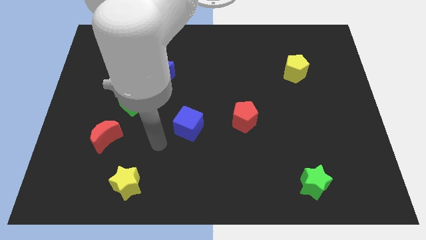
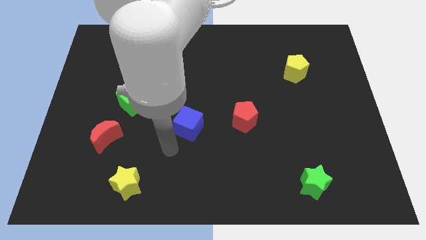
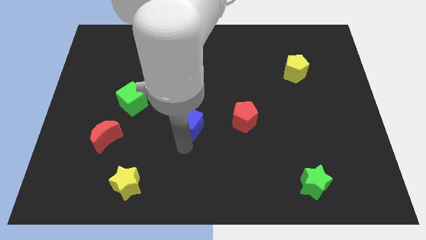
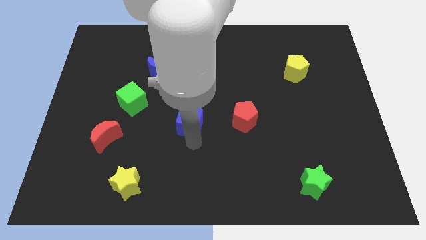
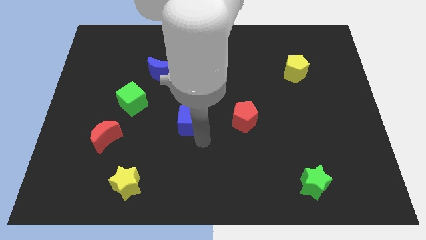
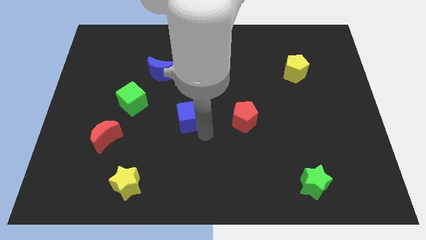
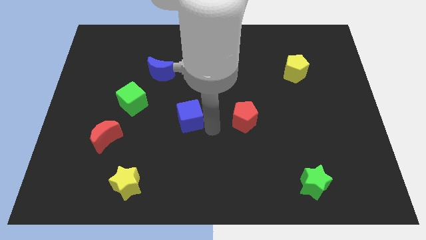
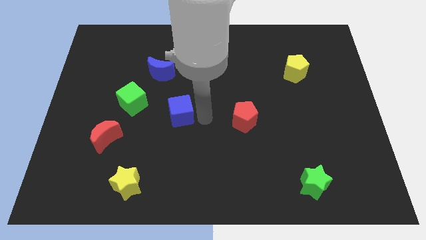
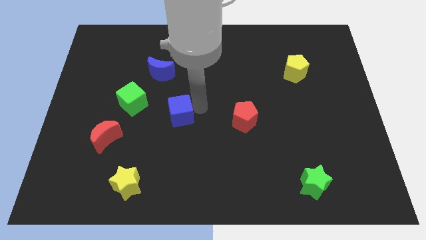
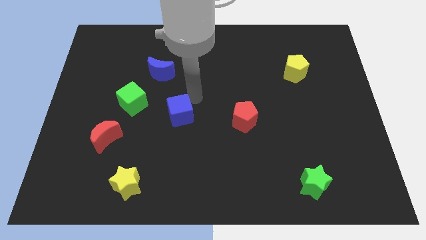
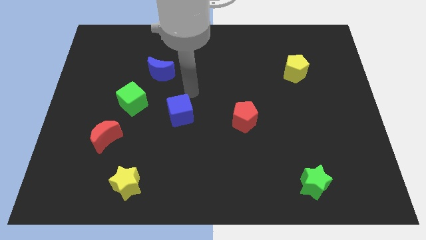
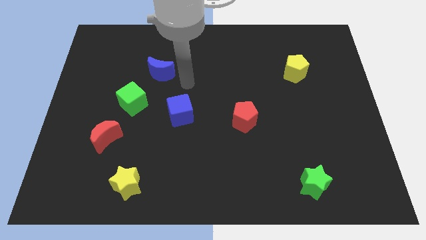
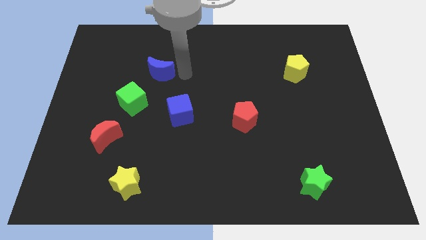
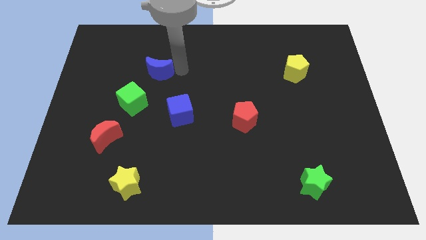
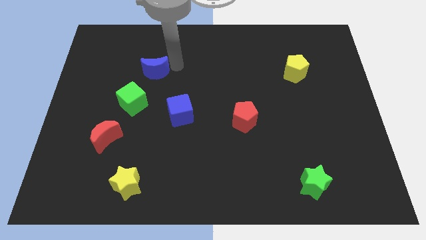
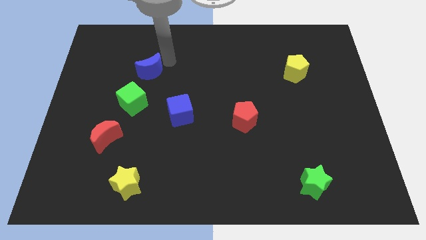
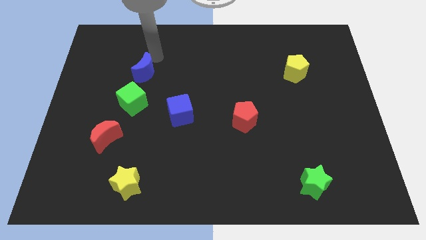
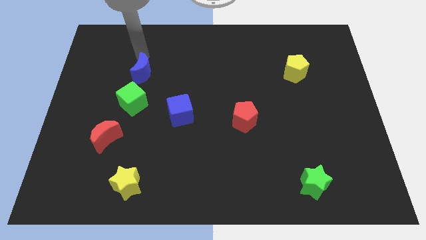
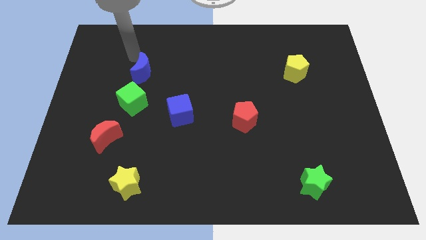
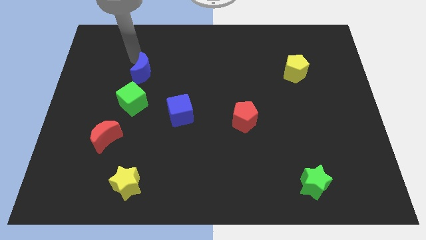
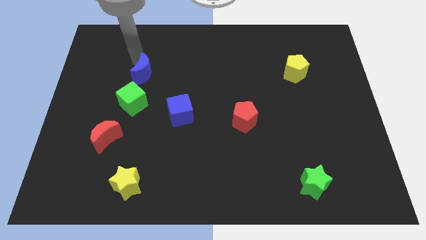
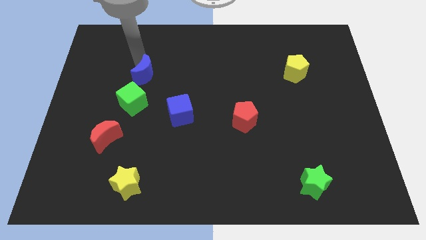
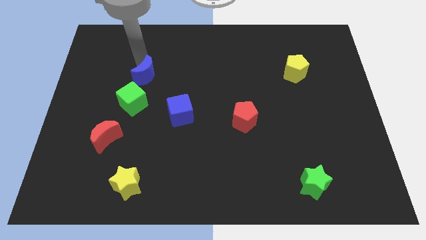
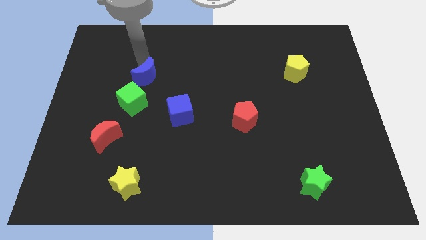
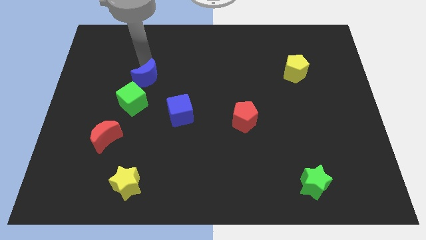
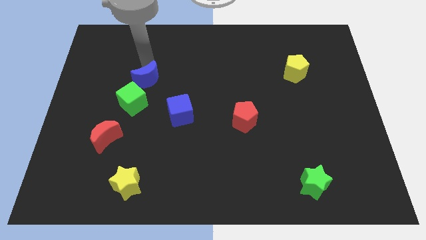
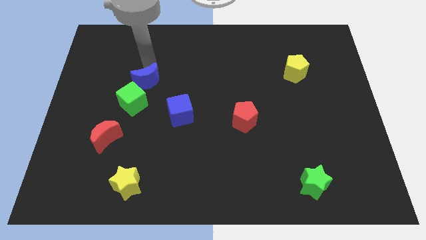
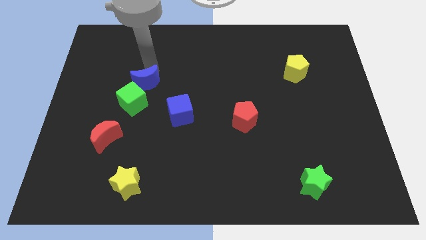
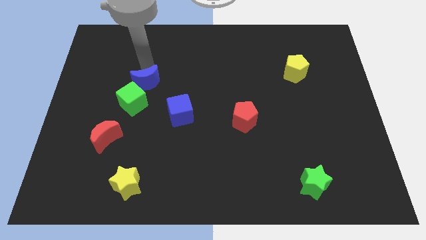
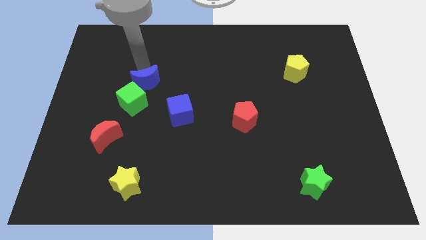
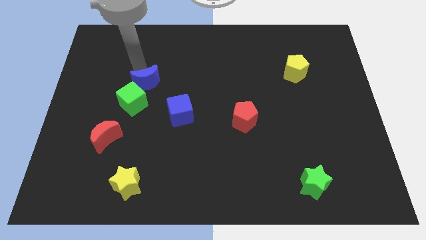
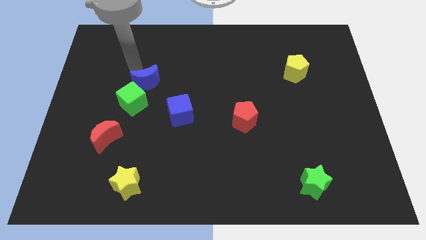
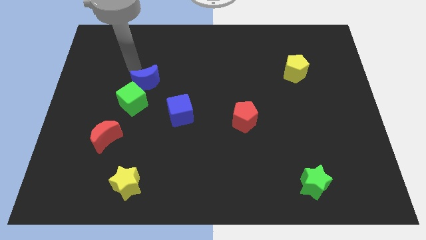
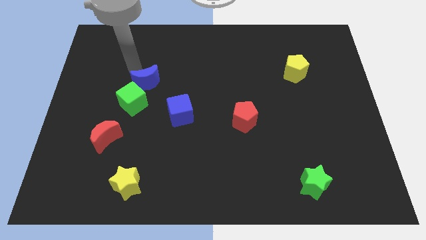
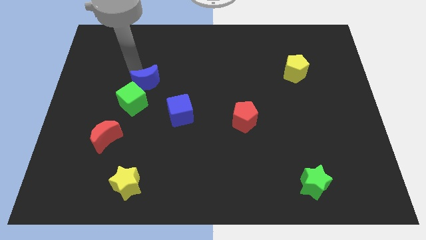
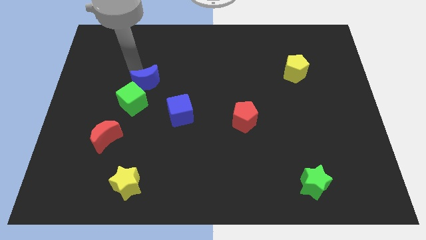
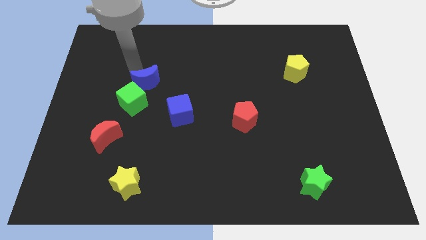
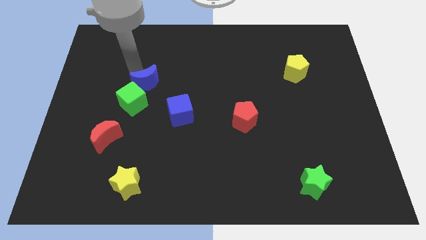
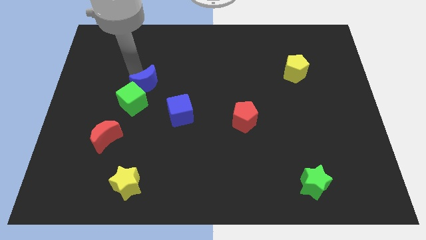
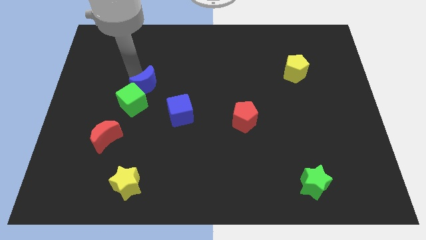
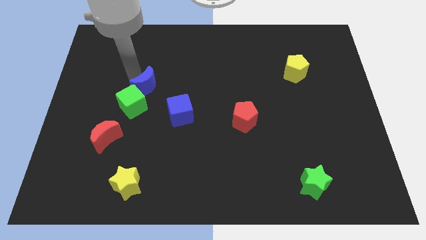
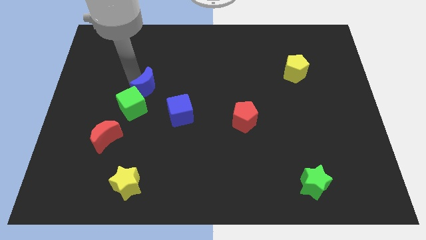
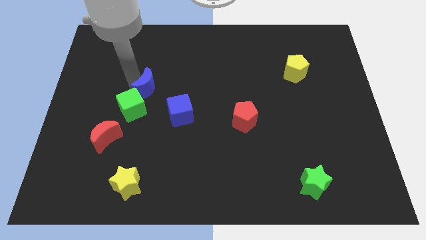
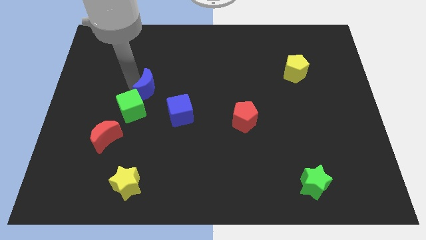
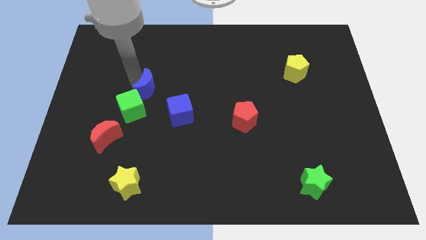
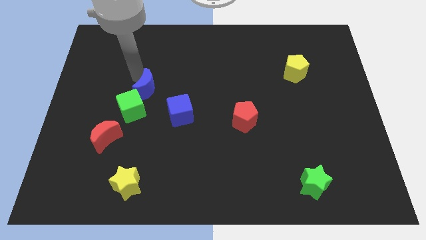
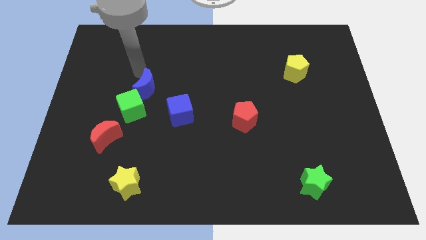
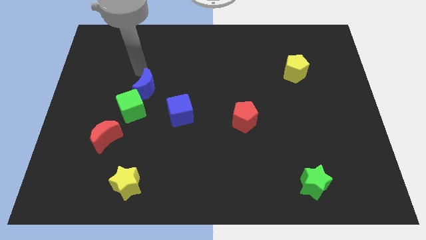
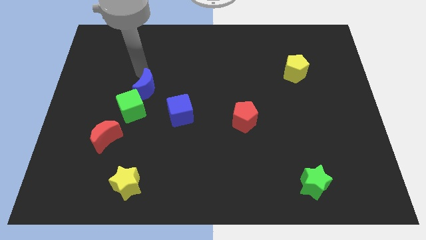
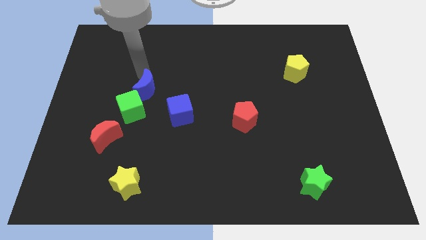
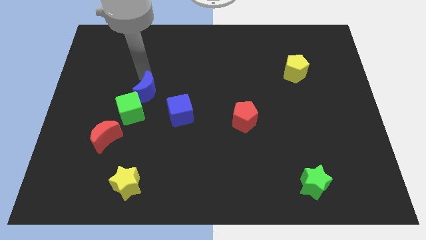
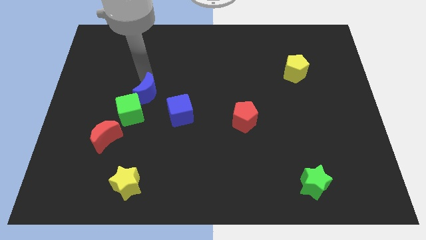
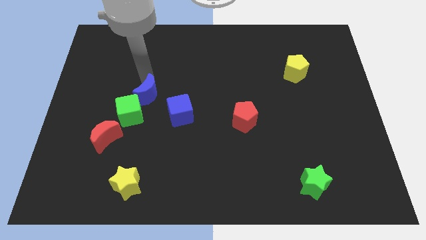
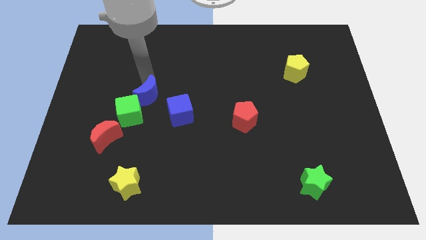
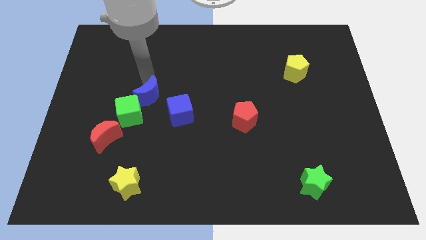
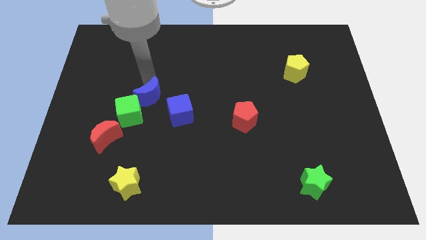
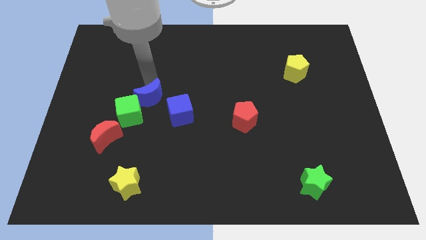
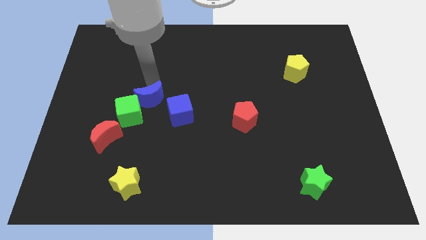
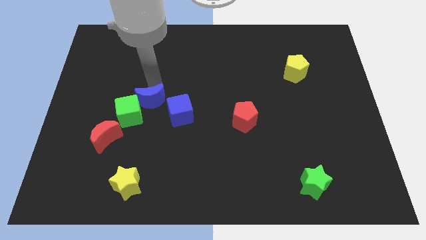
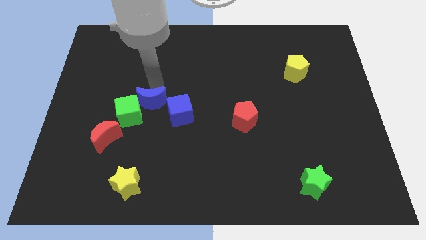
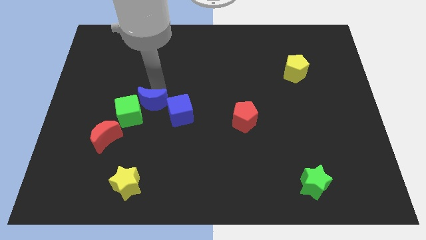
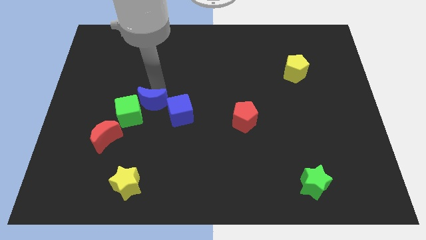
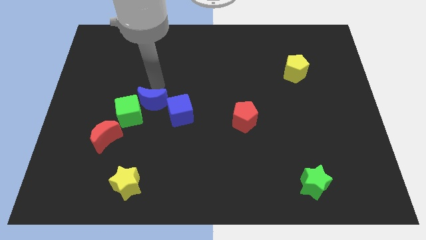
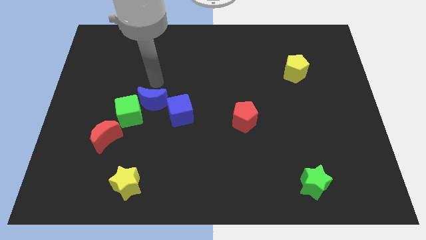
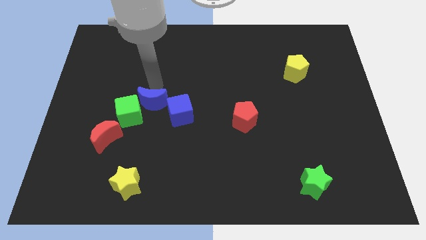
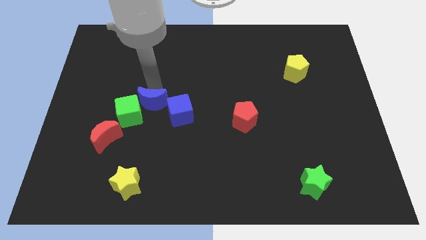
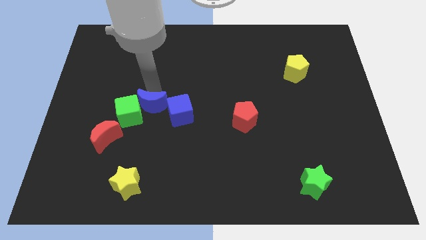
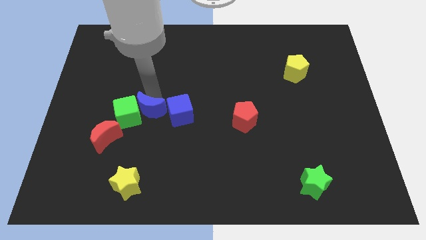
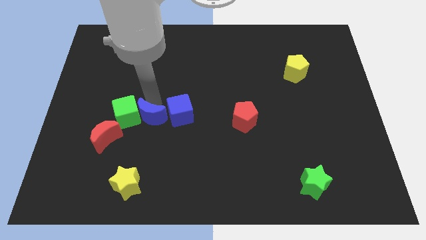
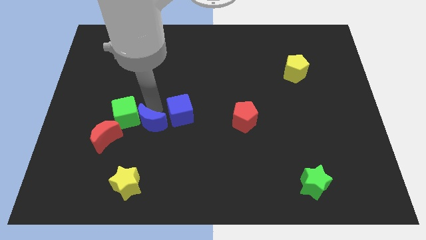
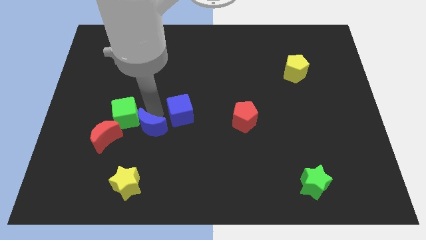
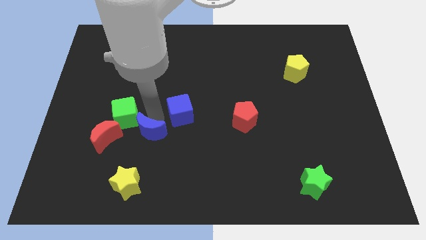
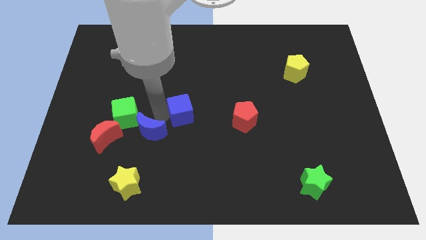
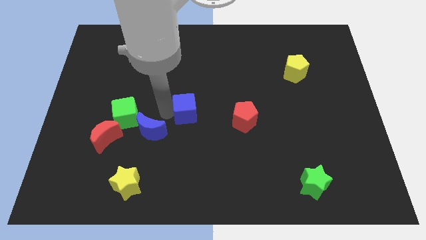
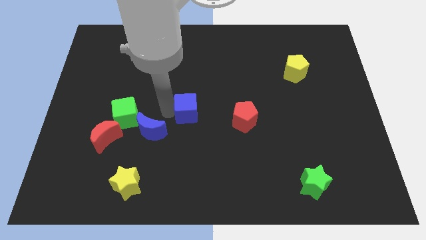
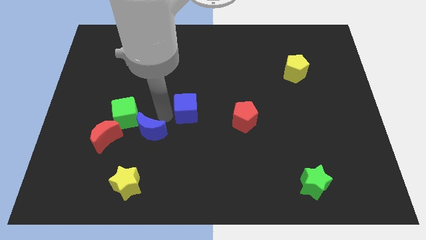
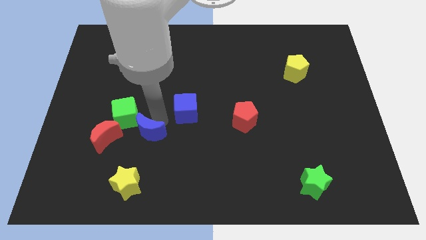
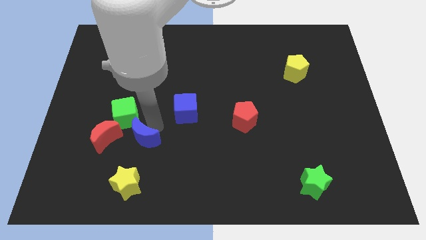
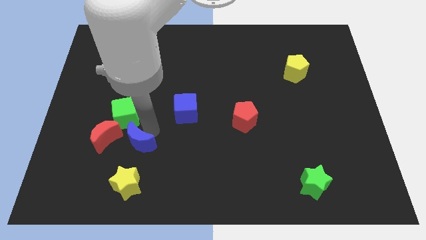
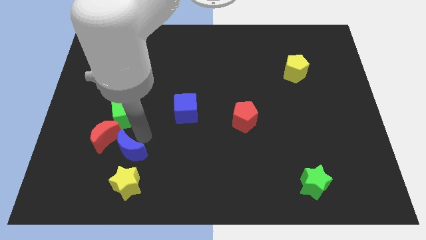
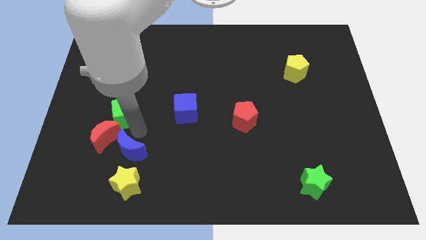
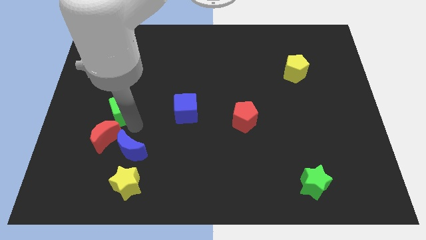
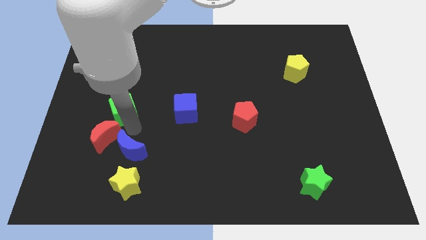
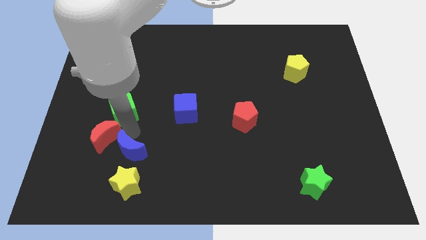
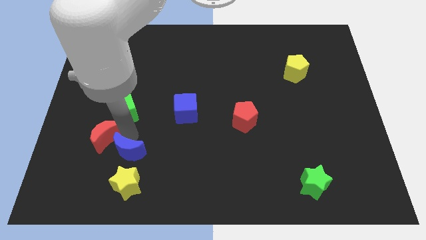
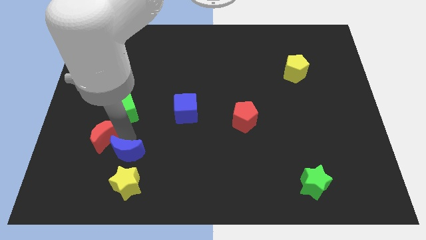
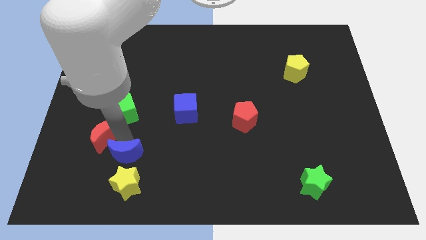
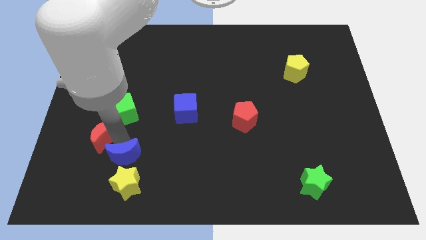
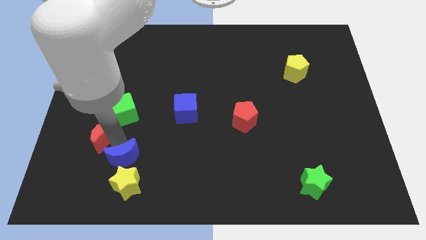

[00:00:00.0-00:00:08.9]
slide the blue moon close to the yellow star
